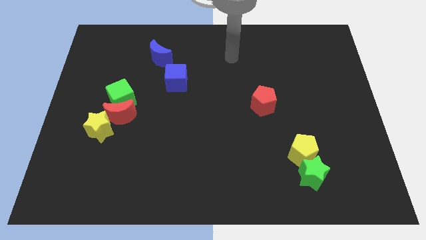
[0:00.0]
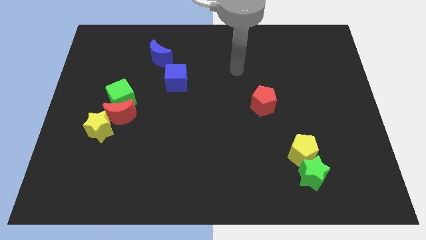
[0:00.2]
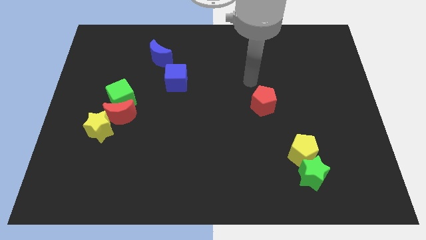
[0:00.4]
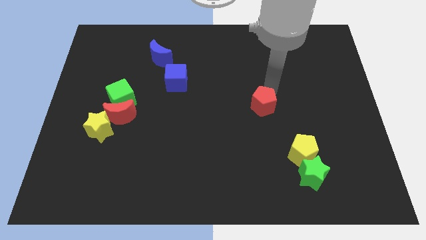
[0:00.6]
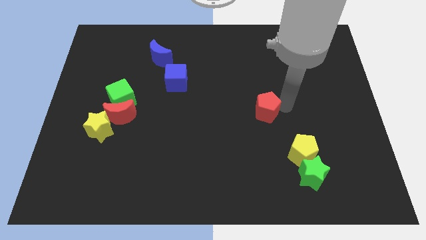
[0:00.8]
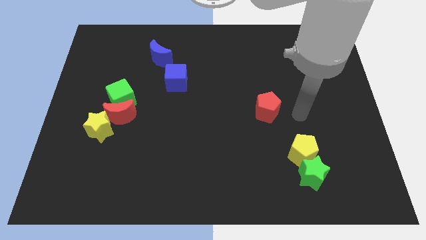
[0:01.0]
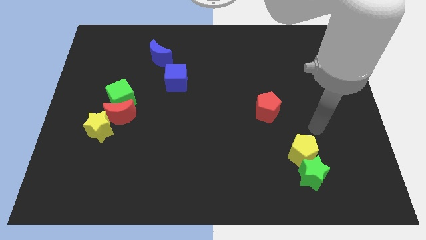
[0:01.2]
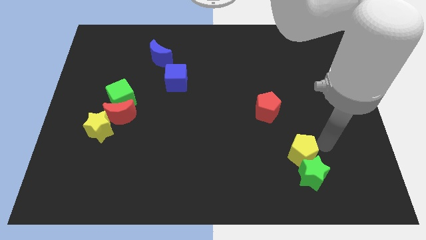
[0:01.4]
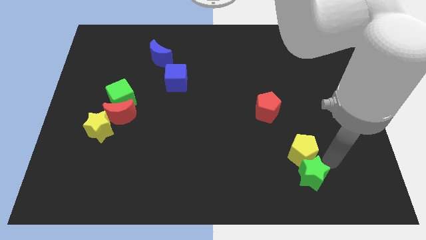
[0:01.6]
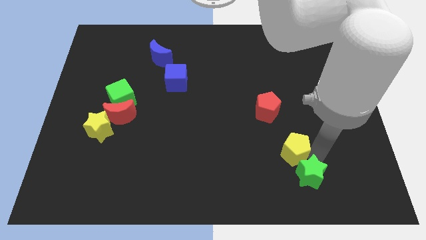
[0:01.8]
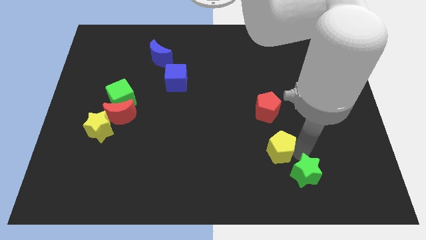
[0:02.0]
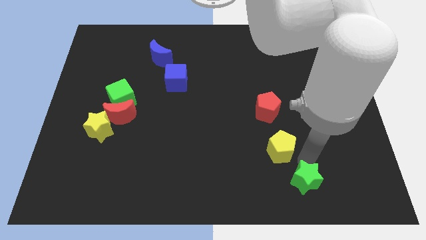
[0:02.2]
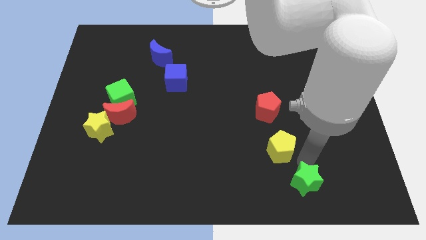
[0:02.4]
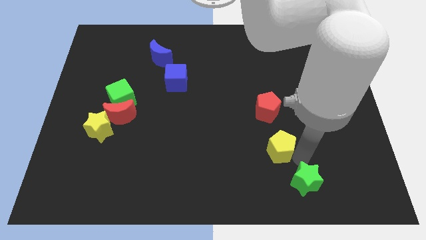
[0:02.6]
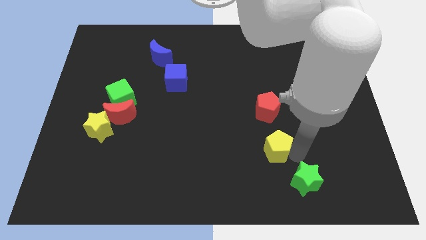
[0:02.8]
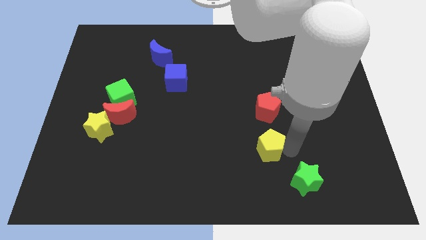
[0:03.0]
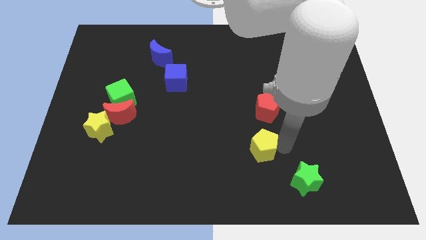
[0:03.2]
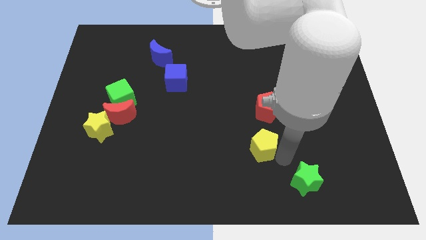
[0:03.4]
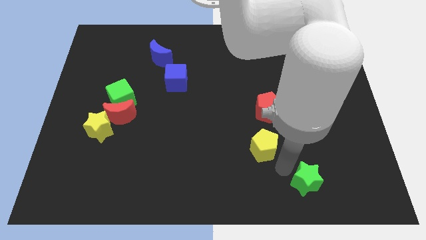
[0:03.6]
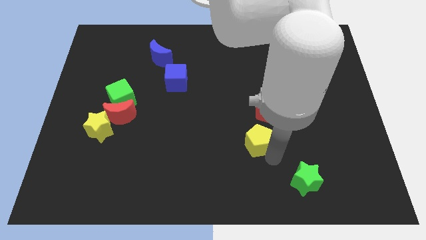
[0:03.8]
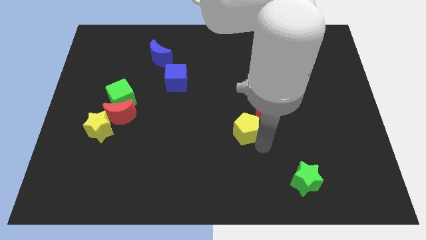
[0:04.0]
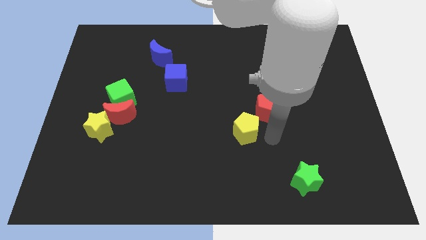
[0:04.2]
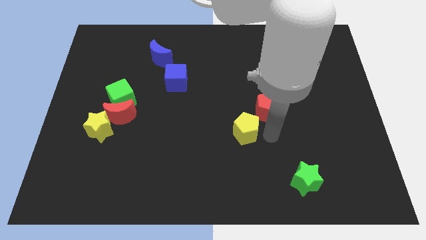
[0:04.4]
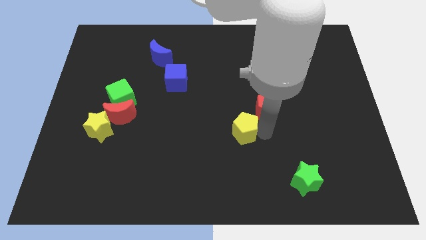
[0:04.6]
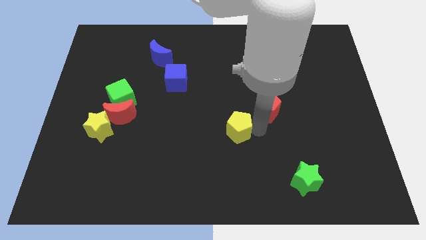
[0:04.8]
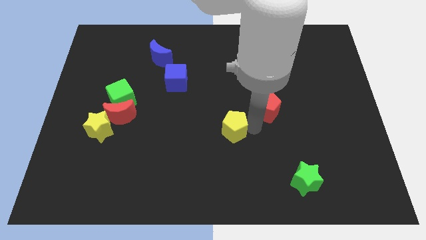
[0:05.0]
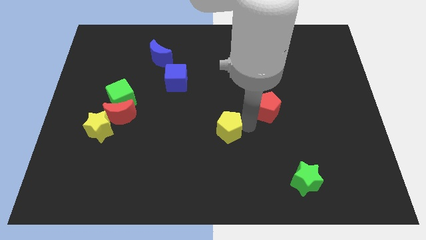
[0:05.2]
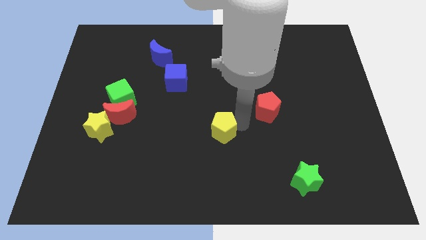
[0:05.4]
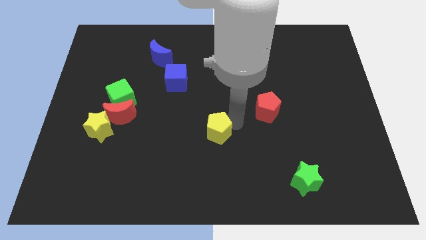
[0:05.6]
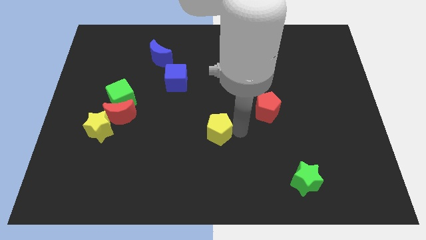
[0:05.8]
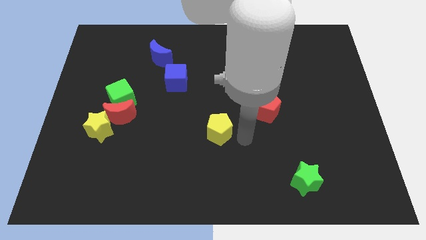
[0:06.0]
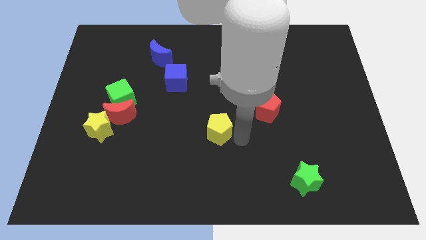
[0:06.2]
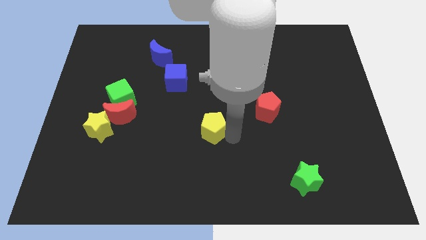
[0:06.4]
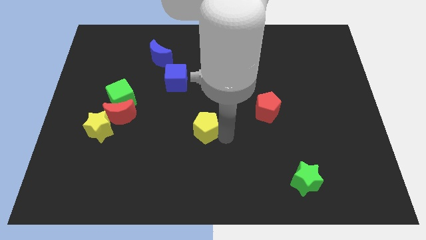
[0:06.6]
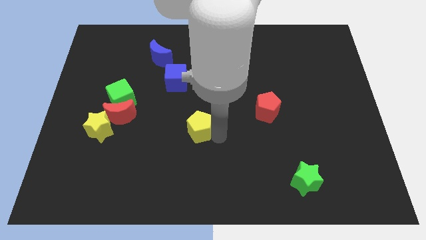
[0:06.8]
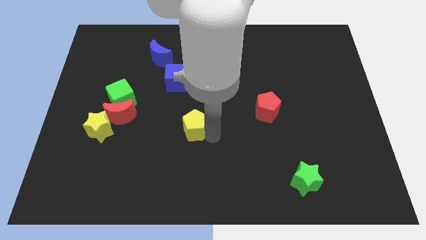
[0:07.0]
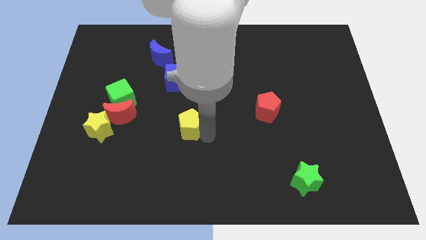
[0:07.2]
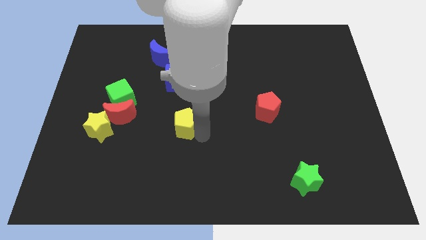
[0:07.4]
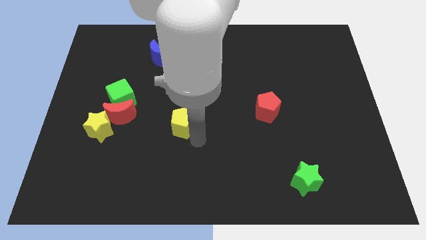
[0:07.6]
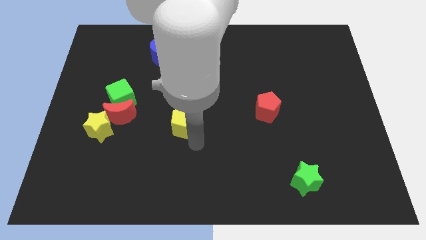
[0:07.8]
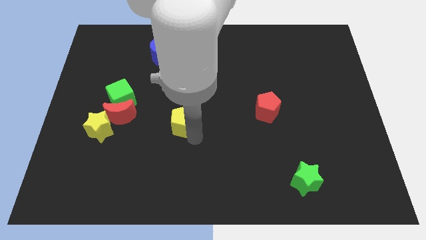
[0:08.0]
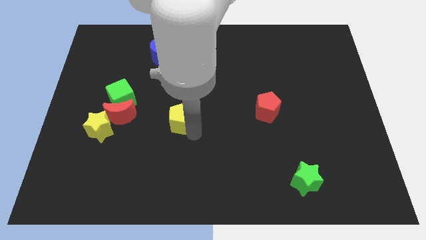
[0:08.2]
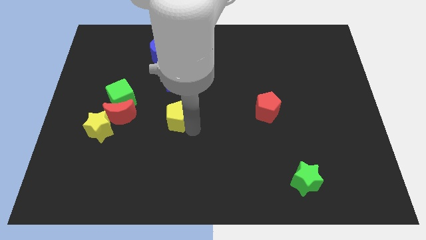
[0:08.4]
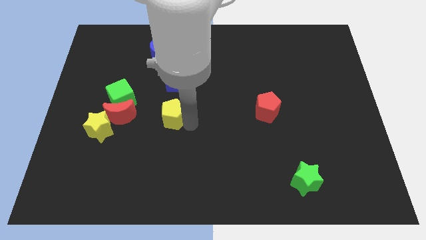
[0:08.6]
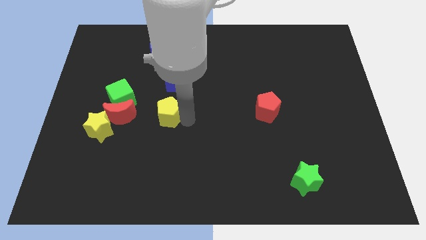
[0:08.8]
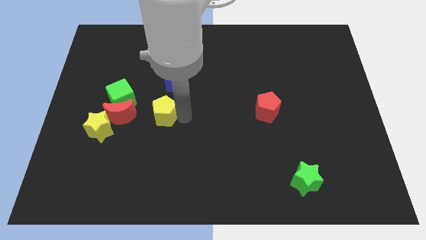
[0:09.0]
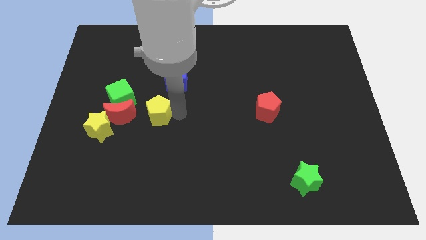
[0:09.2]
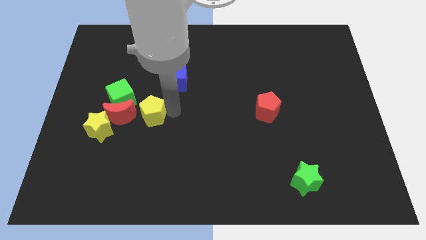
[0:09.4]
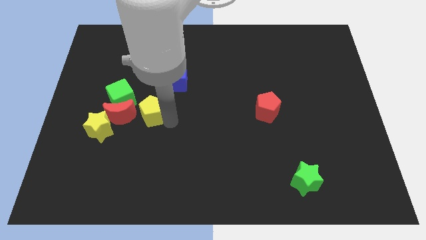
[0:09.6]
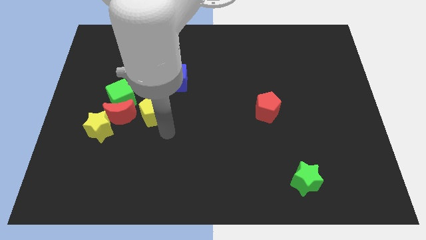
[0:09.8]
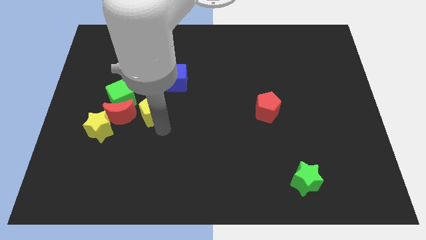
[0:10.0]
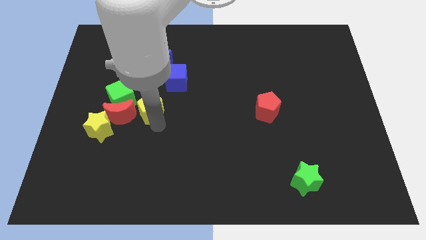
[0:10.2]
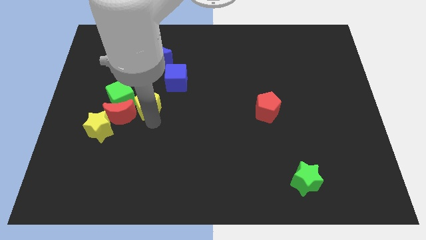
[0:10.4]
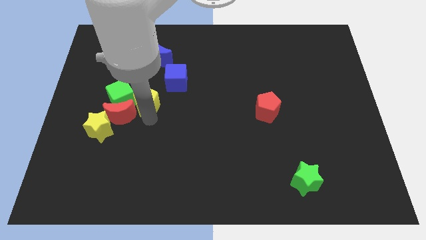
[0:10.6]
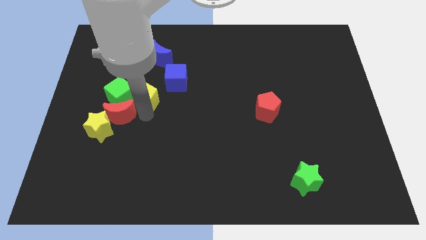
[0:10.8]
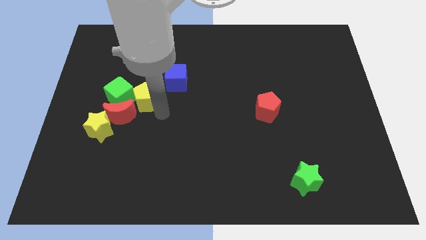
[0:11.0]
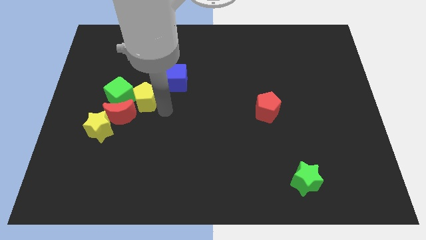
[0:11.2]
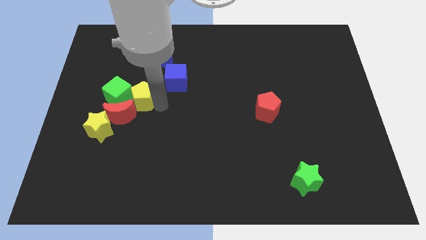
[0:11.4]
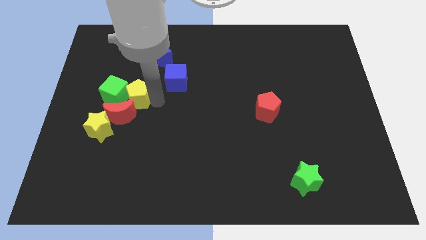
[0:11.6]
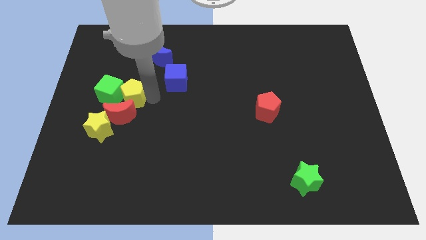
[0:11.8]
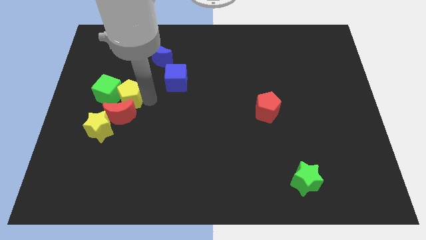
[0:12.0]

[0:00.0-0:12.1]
move the yellow pentagon to the top left side of the red moon

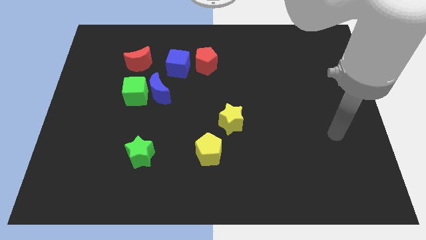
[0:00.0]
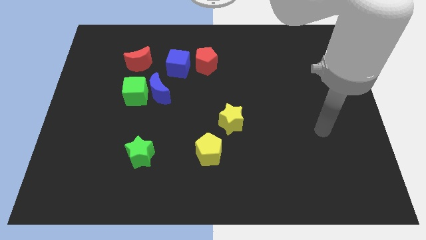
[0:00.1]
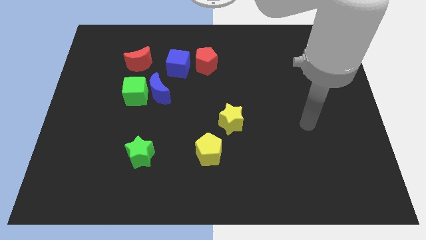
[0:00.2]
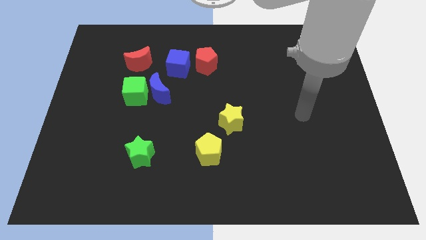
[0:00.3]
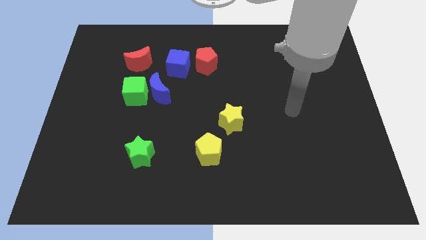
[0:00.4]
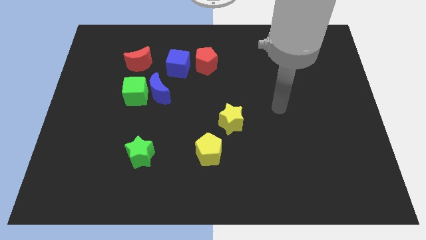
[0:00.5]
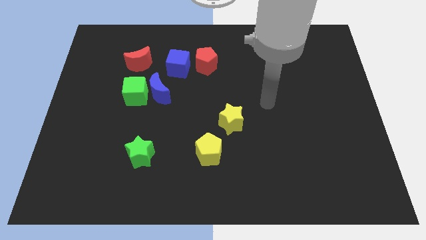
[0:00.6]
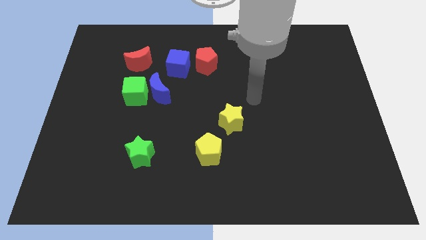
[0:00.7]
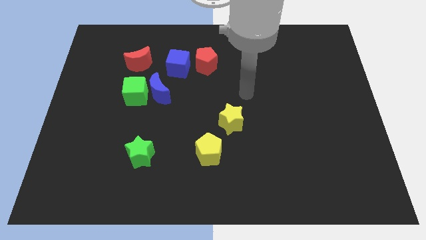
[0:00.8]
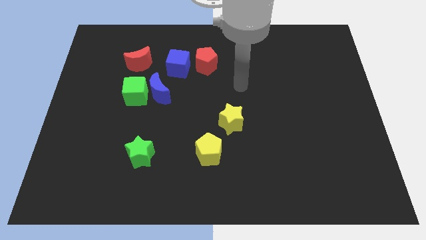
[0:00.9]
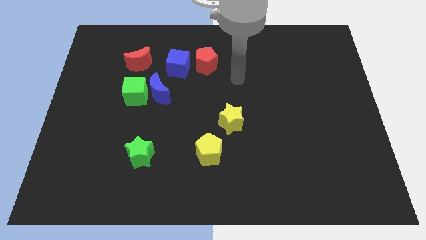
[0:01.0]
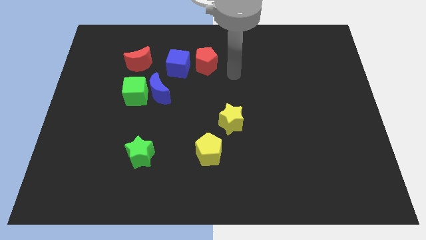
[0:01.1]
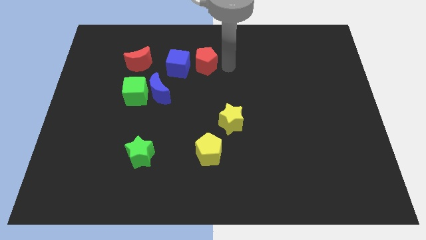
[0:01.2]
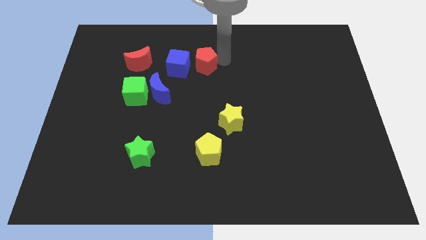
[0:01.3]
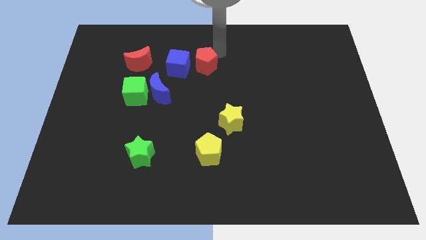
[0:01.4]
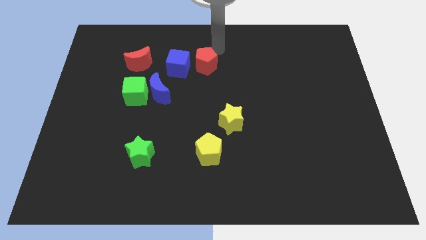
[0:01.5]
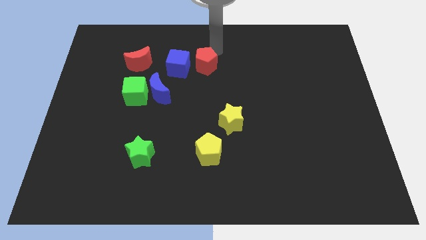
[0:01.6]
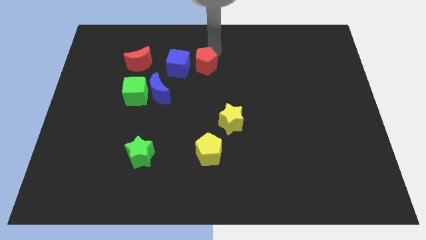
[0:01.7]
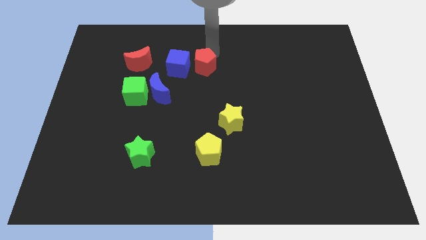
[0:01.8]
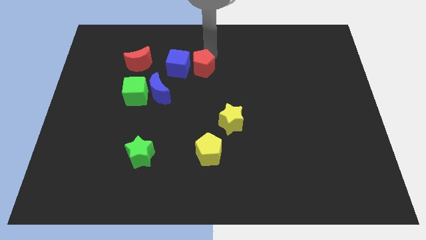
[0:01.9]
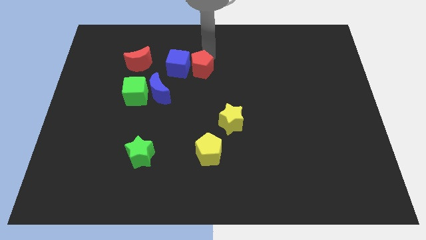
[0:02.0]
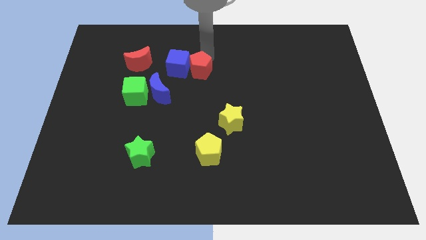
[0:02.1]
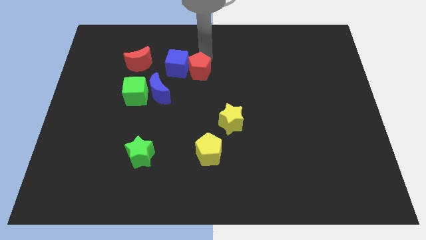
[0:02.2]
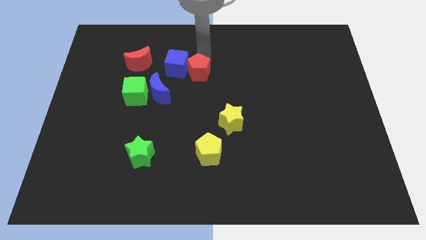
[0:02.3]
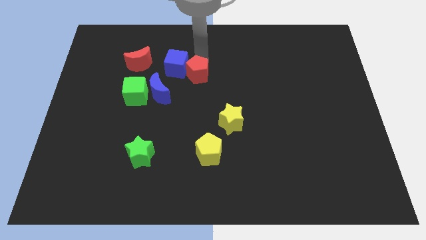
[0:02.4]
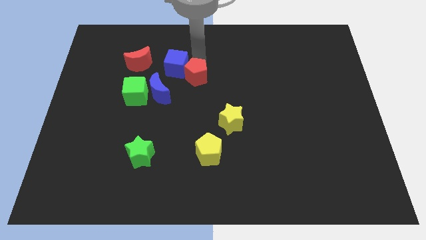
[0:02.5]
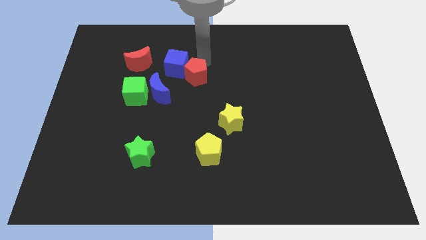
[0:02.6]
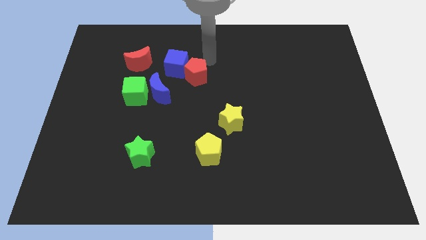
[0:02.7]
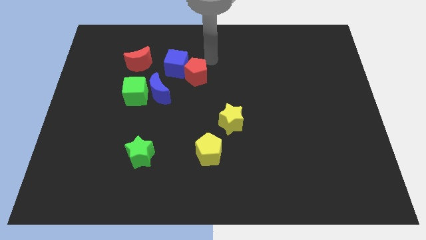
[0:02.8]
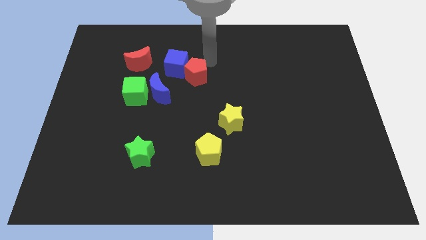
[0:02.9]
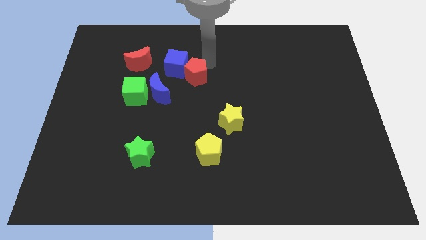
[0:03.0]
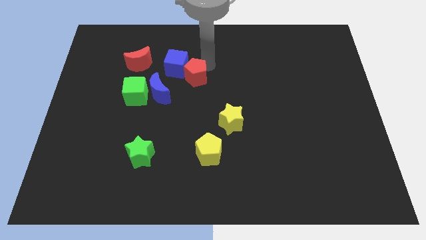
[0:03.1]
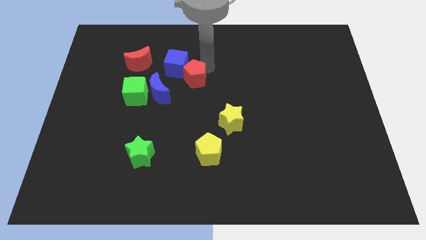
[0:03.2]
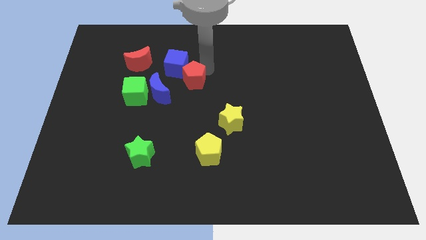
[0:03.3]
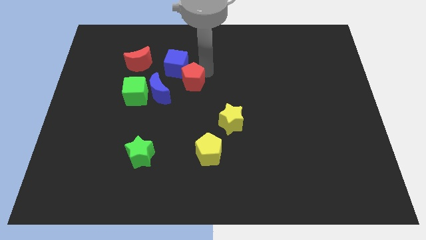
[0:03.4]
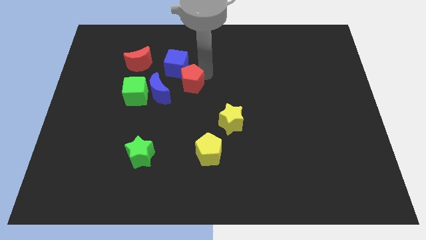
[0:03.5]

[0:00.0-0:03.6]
put the red pentagon to the right side of the green cube
